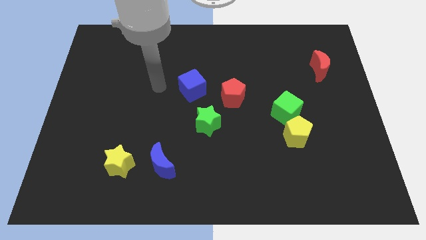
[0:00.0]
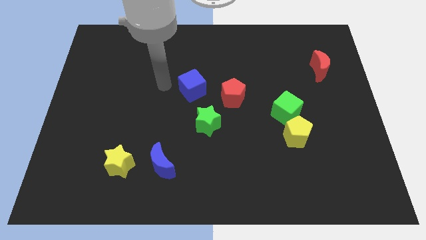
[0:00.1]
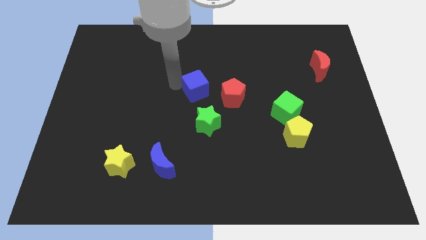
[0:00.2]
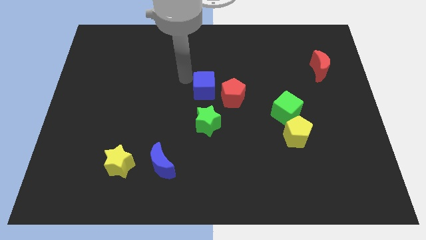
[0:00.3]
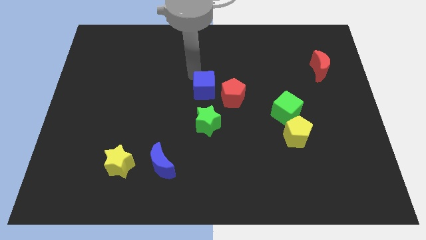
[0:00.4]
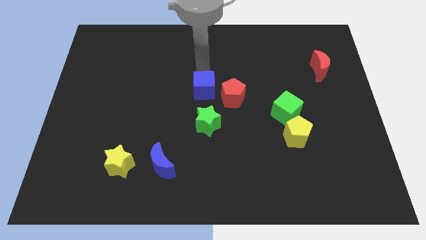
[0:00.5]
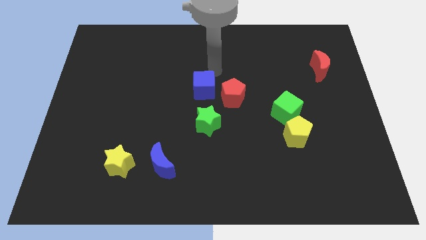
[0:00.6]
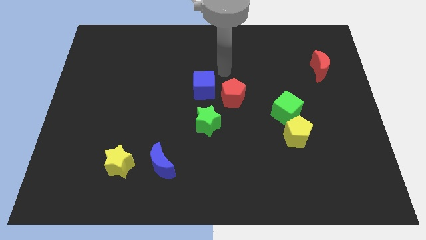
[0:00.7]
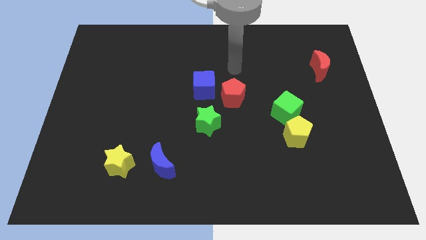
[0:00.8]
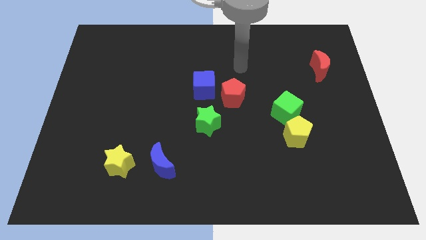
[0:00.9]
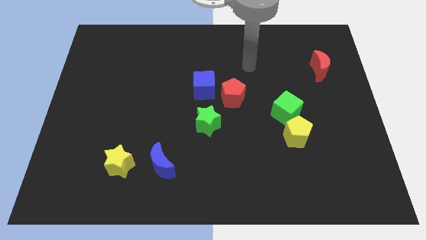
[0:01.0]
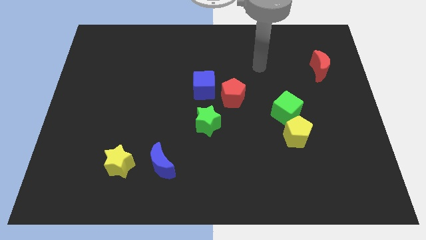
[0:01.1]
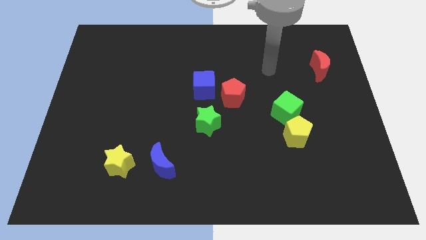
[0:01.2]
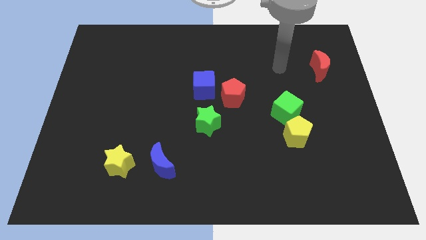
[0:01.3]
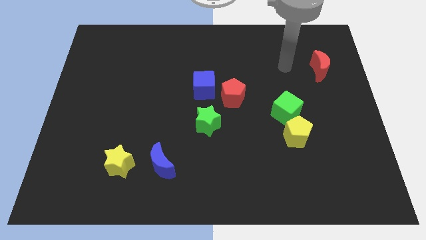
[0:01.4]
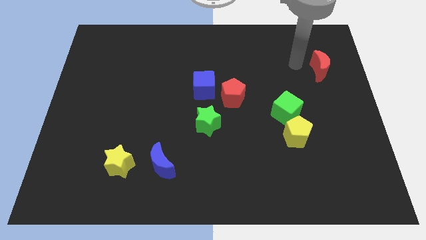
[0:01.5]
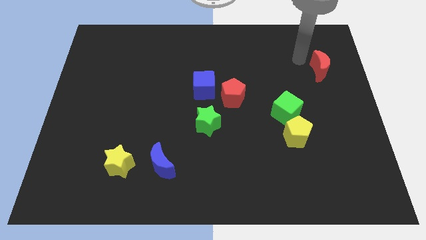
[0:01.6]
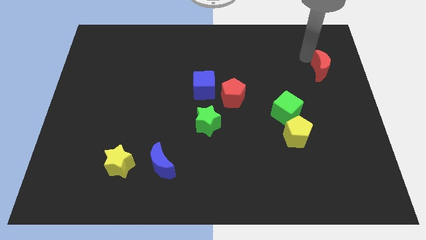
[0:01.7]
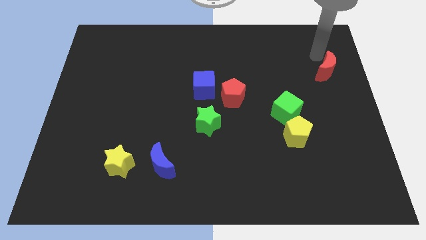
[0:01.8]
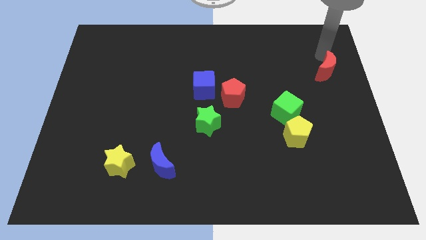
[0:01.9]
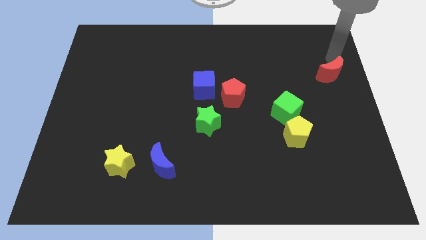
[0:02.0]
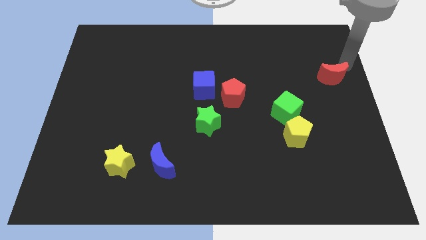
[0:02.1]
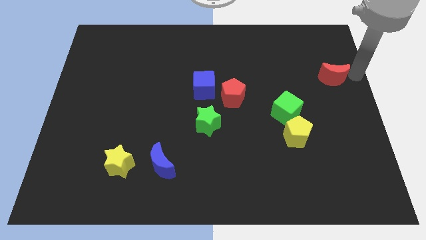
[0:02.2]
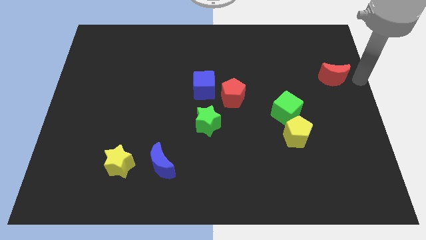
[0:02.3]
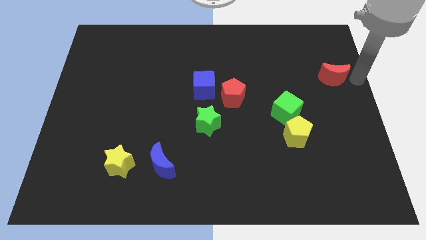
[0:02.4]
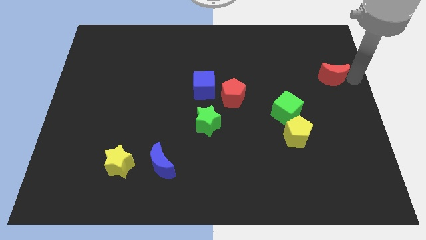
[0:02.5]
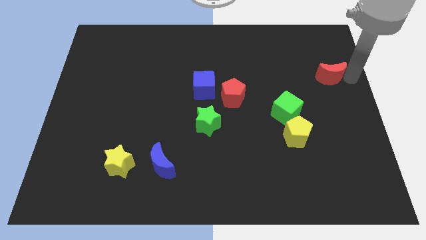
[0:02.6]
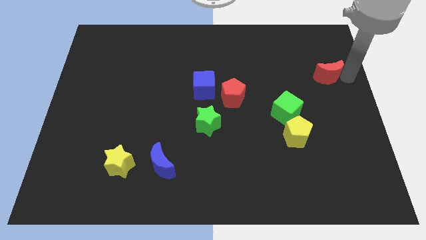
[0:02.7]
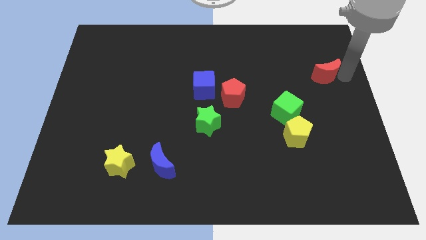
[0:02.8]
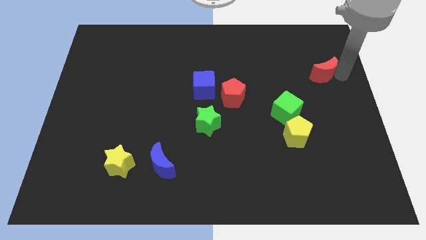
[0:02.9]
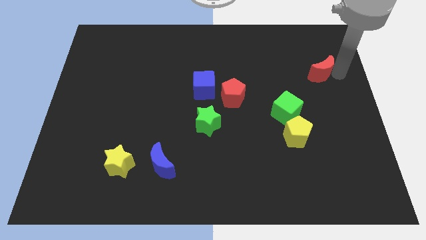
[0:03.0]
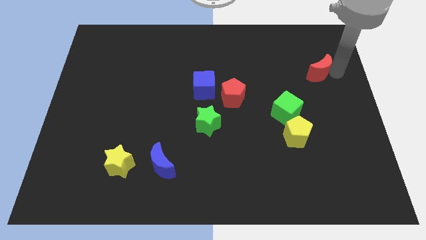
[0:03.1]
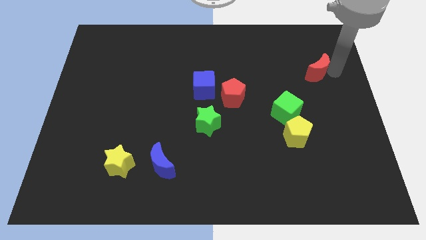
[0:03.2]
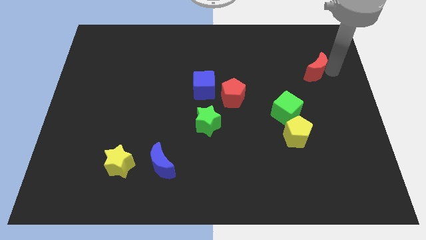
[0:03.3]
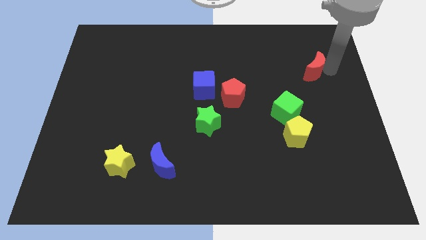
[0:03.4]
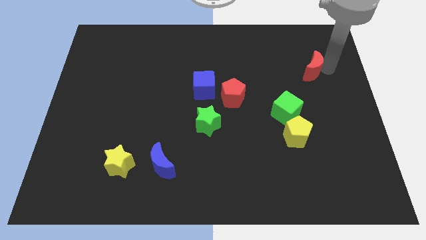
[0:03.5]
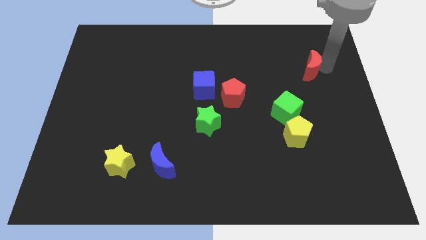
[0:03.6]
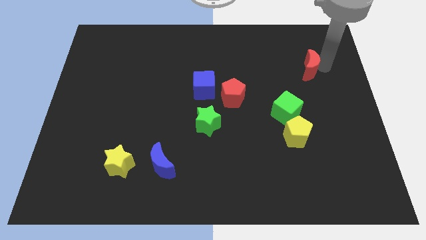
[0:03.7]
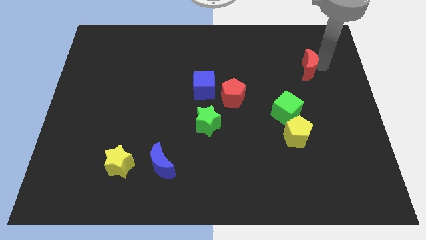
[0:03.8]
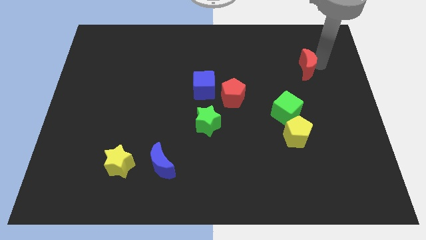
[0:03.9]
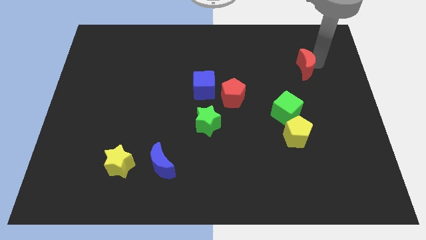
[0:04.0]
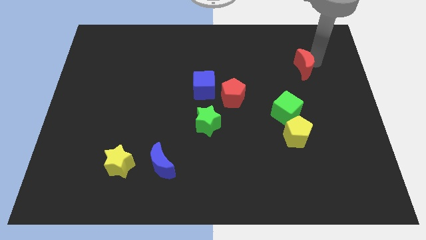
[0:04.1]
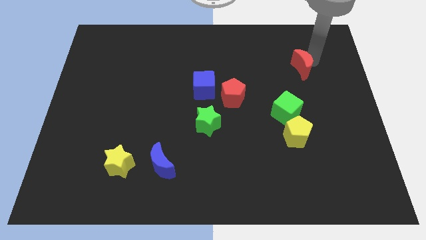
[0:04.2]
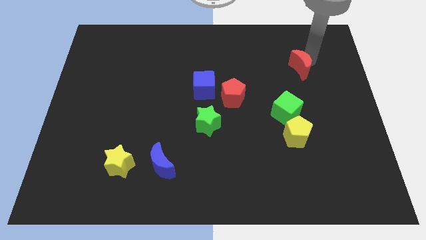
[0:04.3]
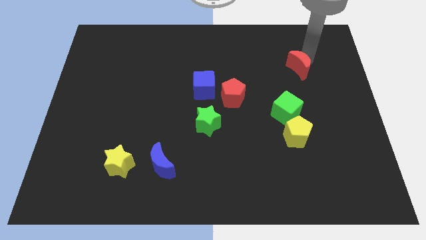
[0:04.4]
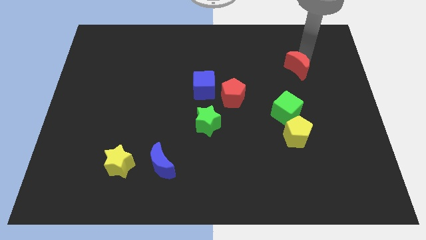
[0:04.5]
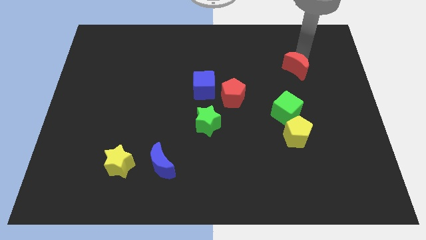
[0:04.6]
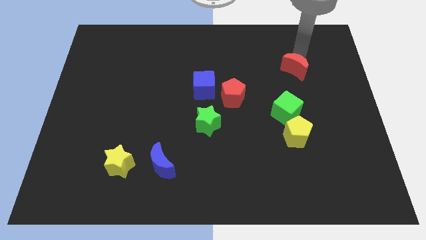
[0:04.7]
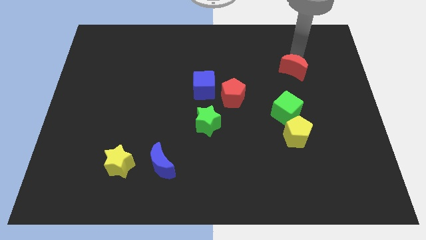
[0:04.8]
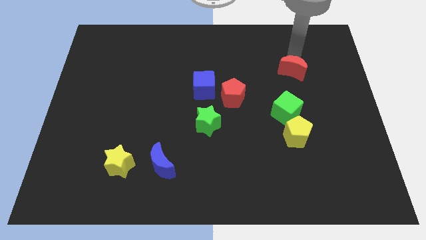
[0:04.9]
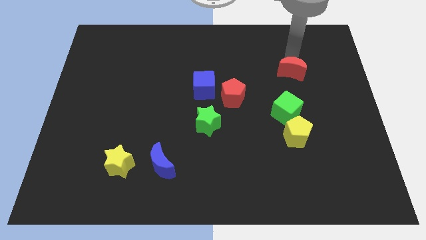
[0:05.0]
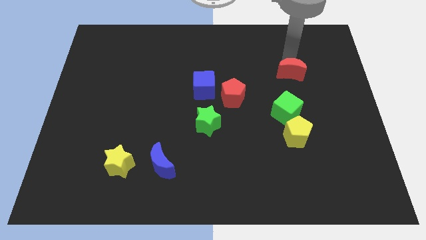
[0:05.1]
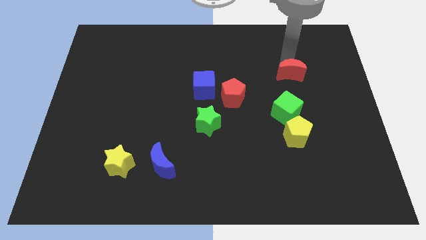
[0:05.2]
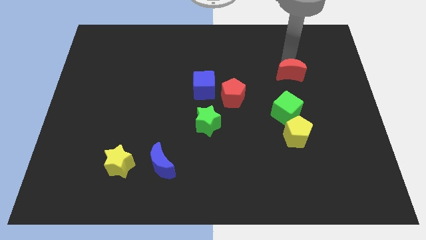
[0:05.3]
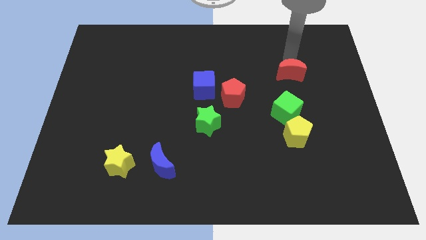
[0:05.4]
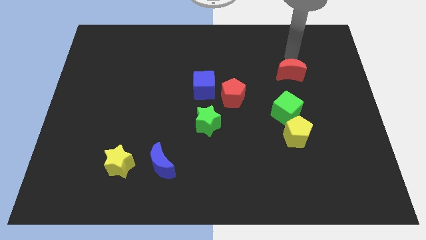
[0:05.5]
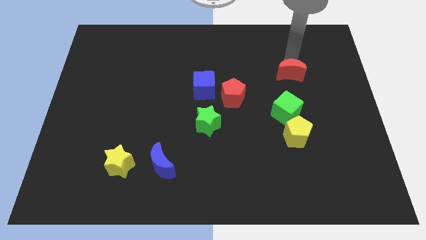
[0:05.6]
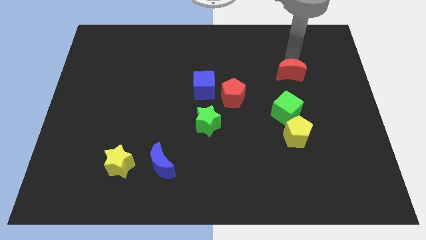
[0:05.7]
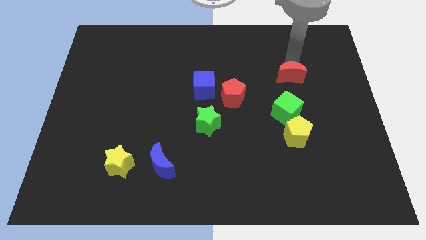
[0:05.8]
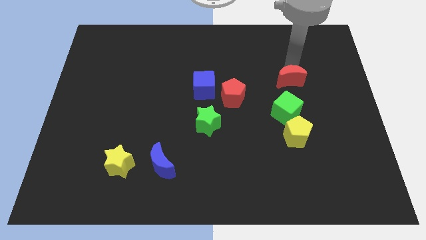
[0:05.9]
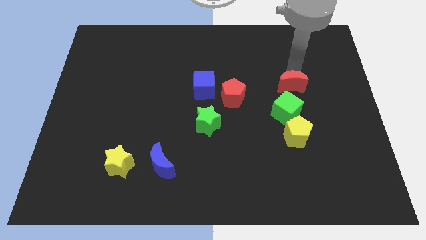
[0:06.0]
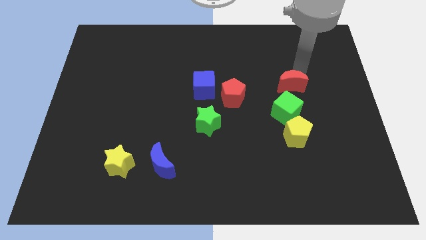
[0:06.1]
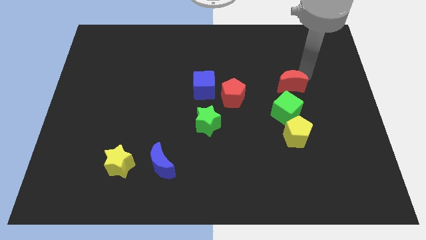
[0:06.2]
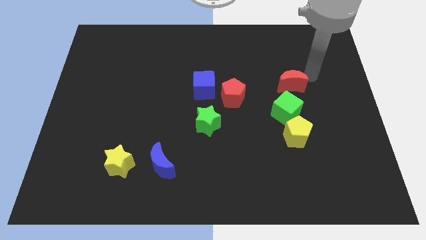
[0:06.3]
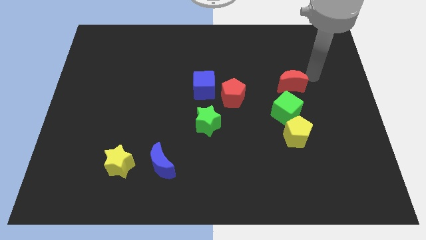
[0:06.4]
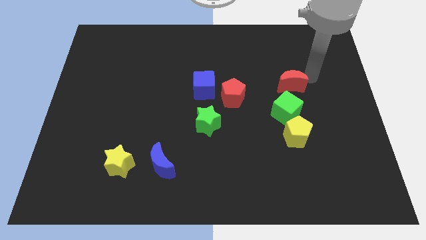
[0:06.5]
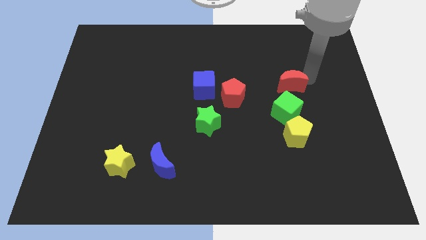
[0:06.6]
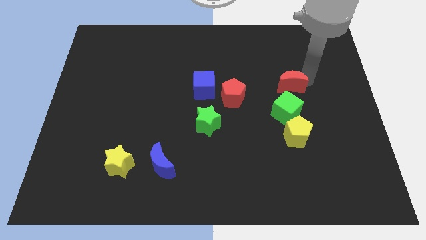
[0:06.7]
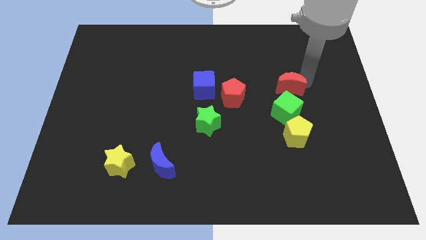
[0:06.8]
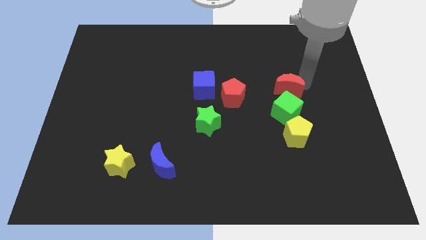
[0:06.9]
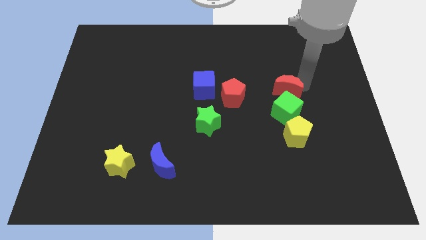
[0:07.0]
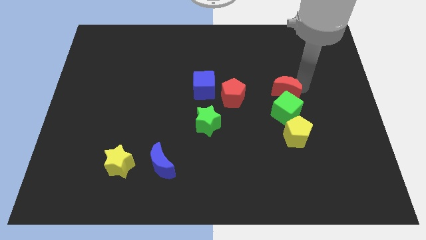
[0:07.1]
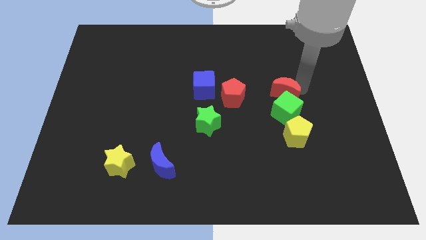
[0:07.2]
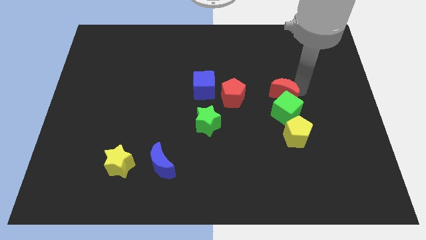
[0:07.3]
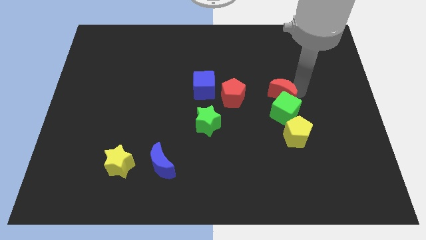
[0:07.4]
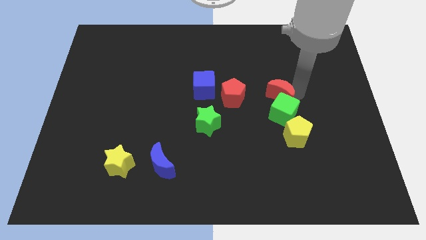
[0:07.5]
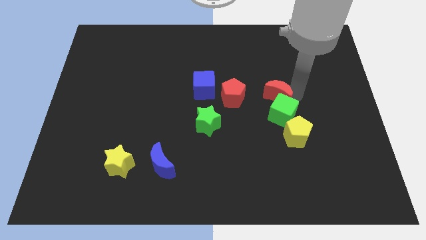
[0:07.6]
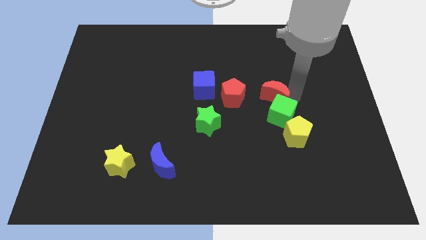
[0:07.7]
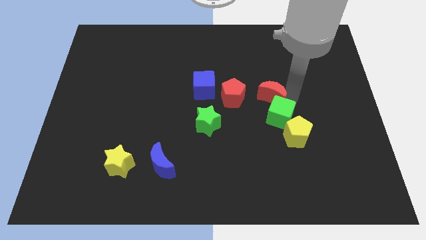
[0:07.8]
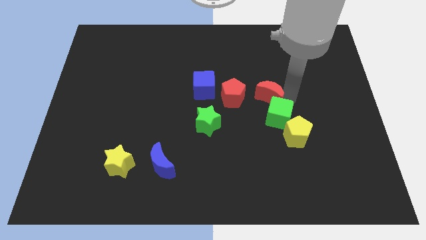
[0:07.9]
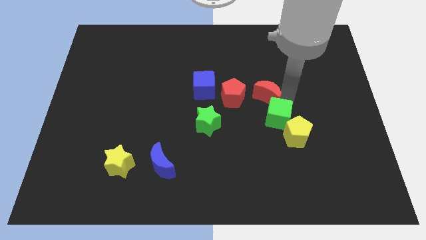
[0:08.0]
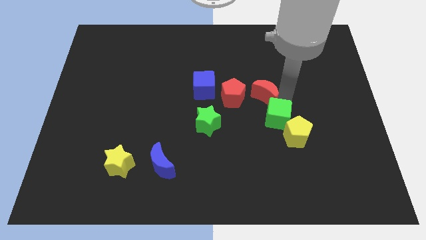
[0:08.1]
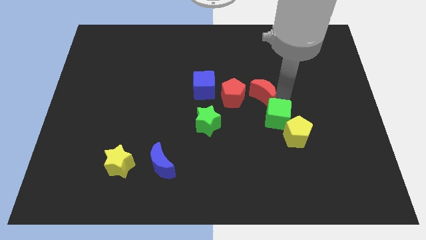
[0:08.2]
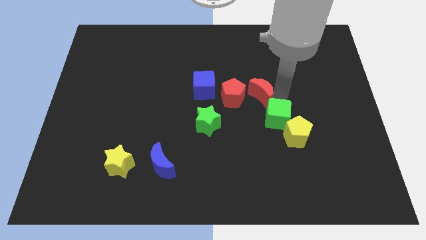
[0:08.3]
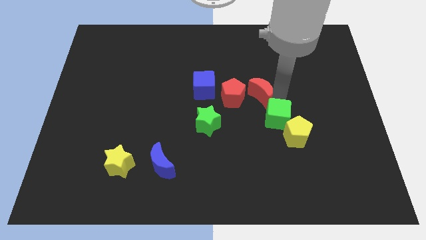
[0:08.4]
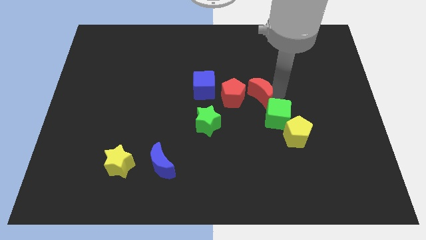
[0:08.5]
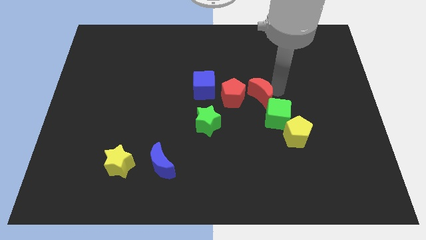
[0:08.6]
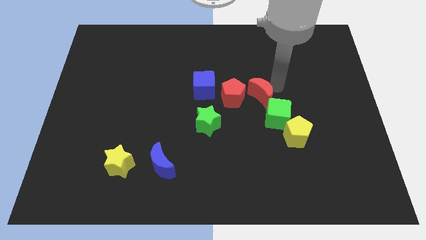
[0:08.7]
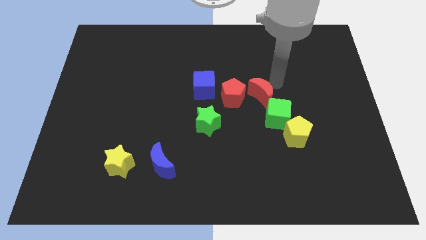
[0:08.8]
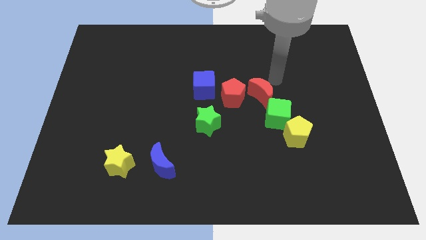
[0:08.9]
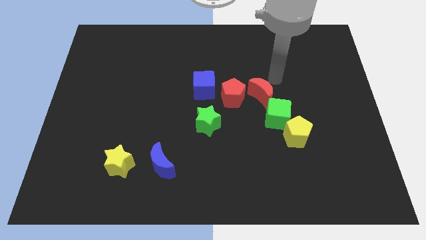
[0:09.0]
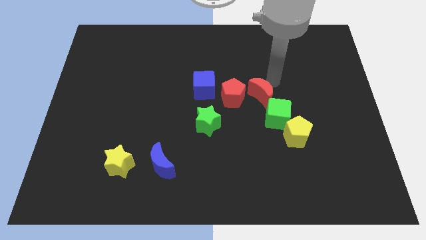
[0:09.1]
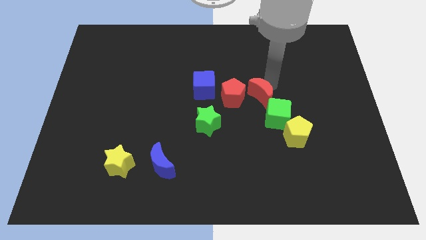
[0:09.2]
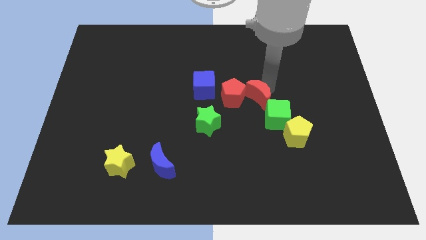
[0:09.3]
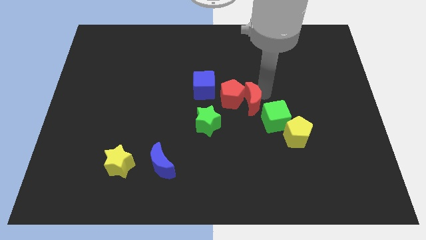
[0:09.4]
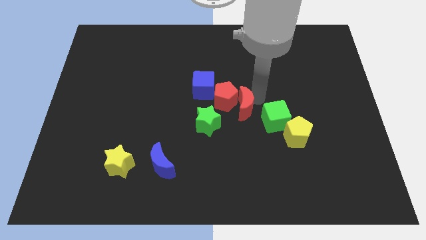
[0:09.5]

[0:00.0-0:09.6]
slide the red moon left of the green cube
